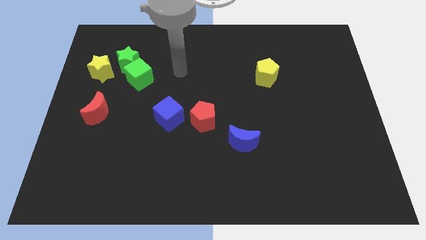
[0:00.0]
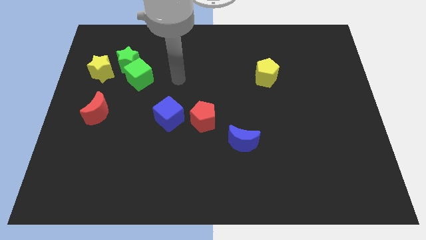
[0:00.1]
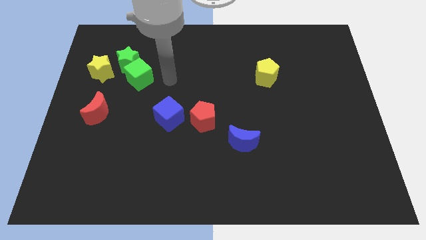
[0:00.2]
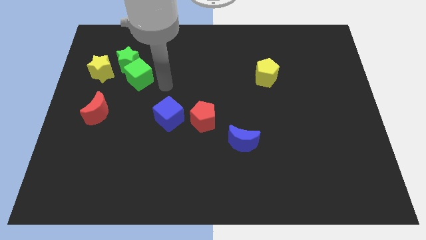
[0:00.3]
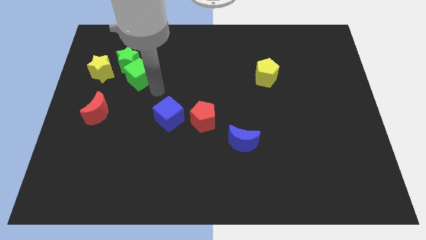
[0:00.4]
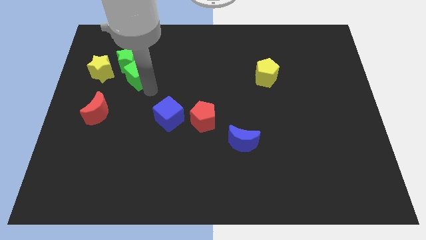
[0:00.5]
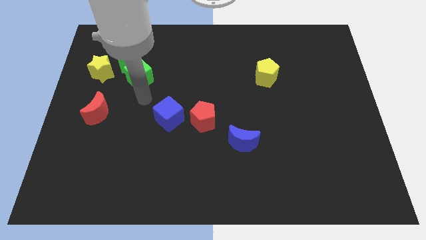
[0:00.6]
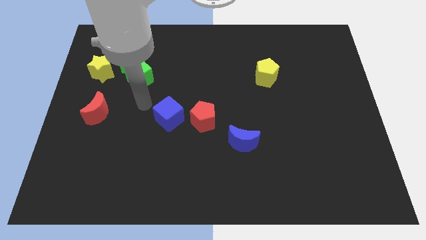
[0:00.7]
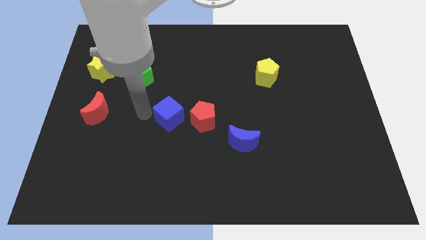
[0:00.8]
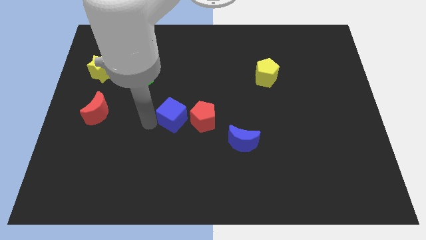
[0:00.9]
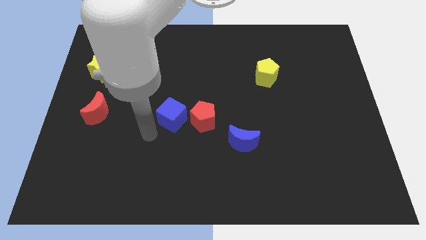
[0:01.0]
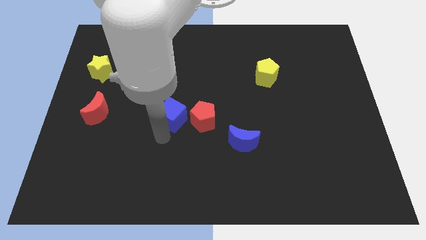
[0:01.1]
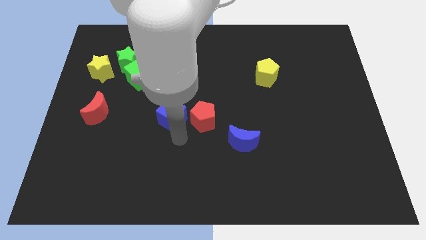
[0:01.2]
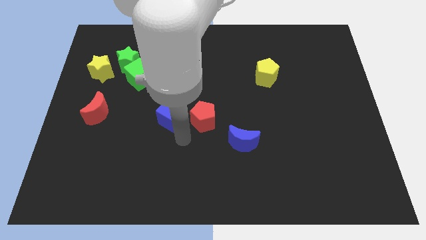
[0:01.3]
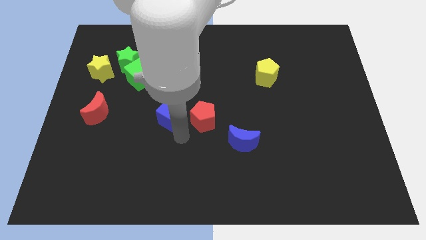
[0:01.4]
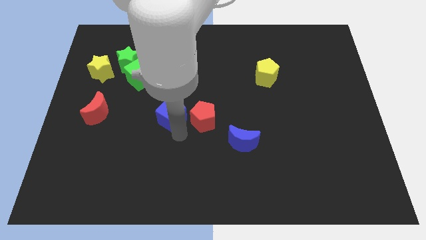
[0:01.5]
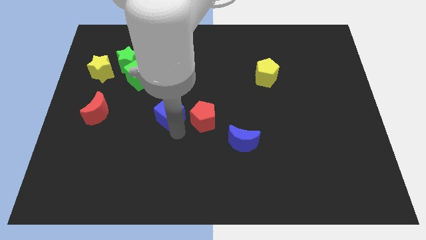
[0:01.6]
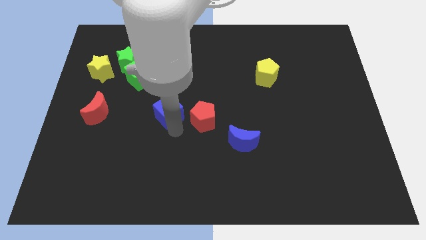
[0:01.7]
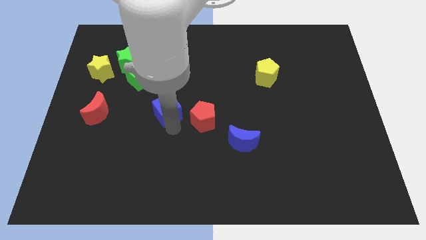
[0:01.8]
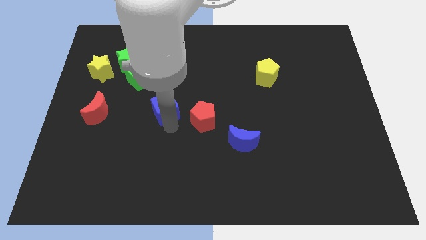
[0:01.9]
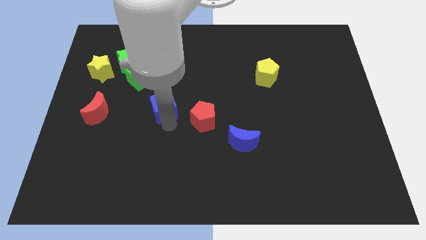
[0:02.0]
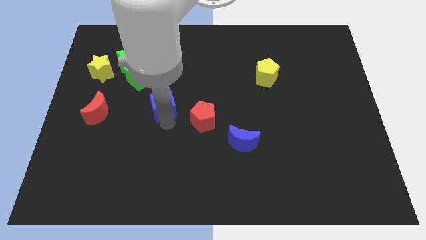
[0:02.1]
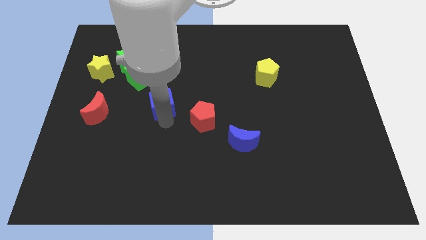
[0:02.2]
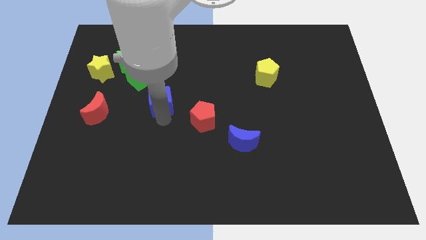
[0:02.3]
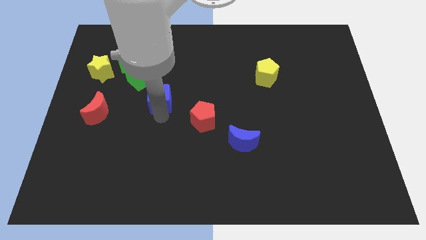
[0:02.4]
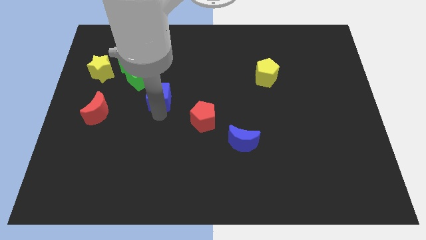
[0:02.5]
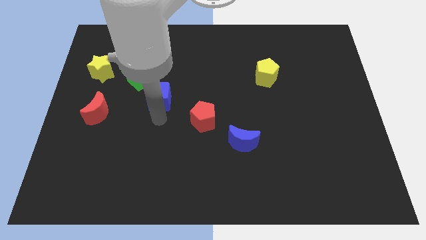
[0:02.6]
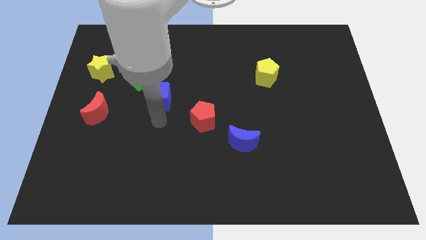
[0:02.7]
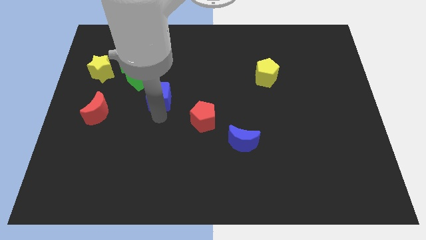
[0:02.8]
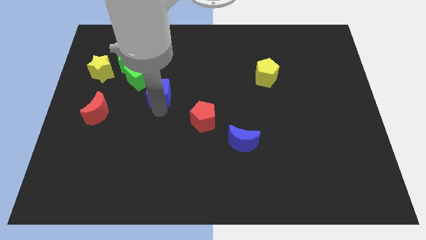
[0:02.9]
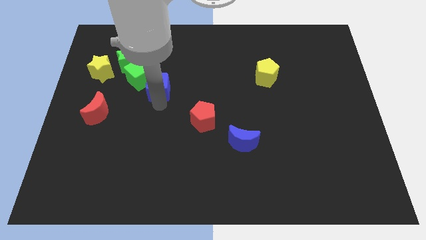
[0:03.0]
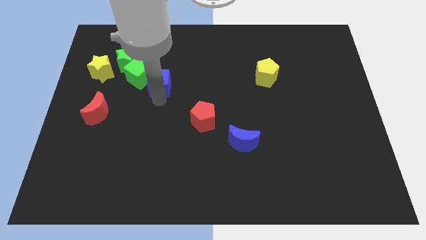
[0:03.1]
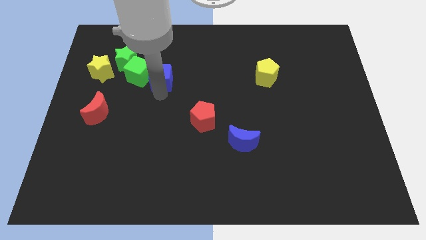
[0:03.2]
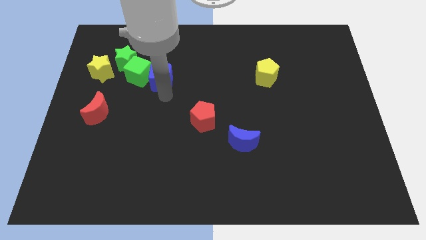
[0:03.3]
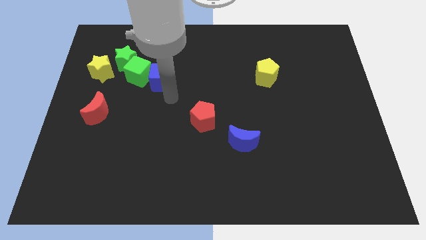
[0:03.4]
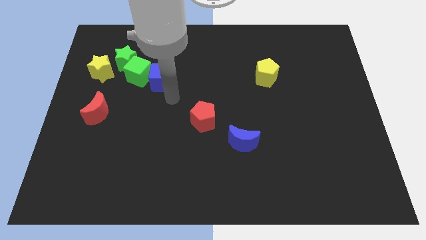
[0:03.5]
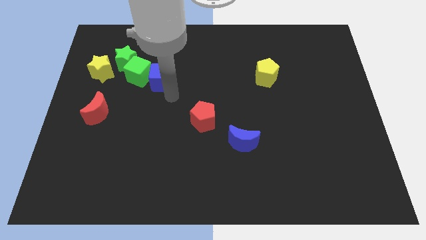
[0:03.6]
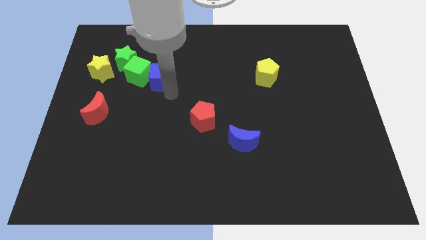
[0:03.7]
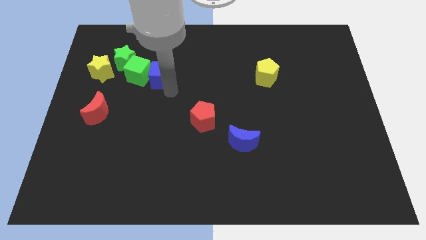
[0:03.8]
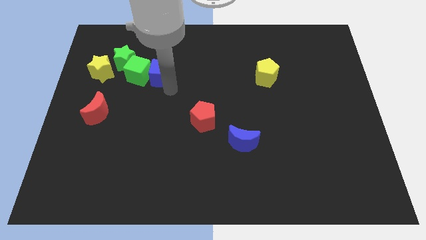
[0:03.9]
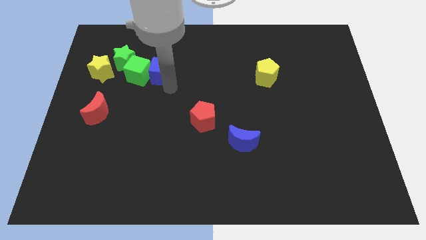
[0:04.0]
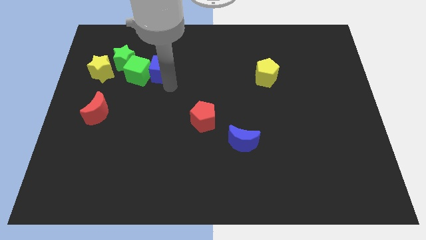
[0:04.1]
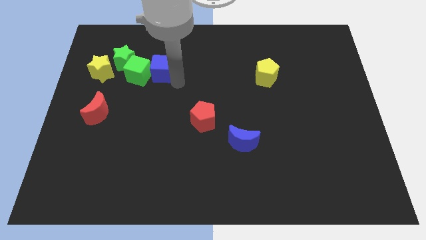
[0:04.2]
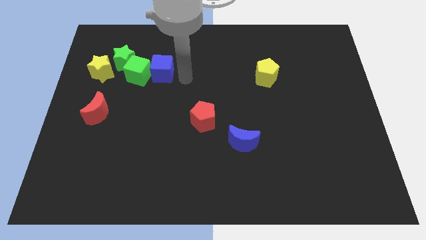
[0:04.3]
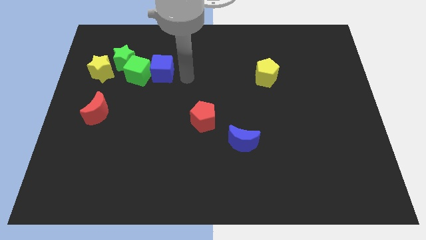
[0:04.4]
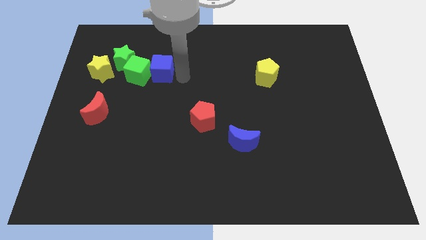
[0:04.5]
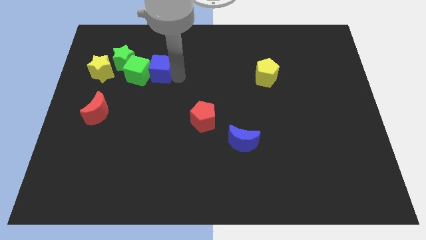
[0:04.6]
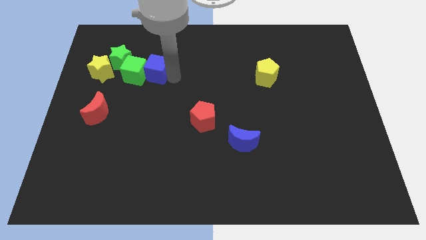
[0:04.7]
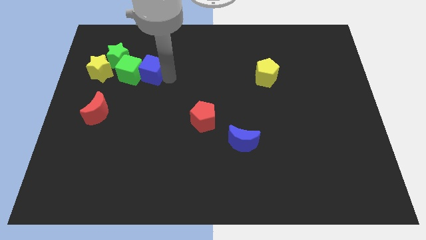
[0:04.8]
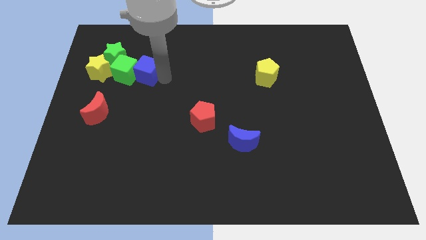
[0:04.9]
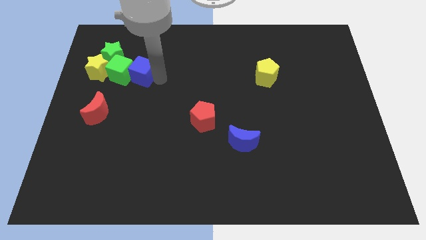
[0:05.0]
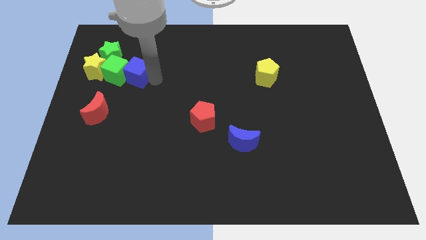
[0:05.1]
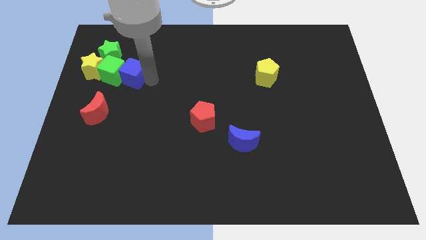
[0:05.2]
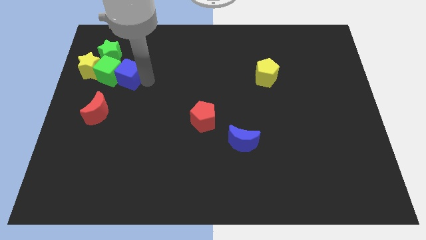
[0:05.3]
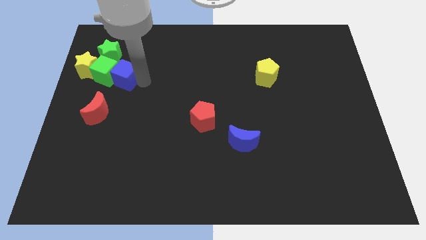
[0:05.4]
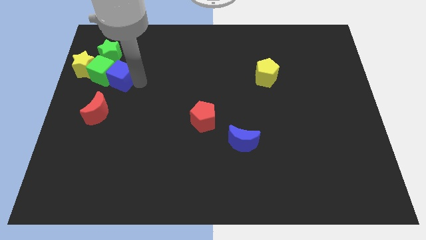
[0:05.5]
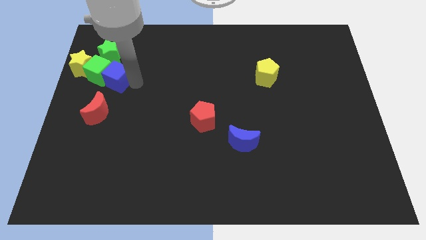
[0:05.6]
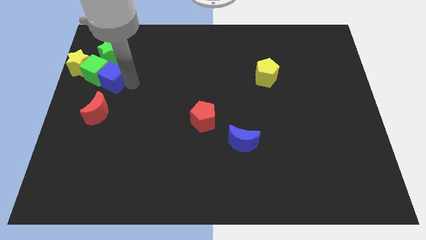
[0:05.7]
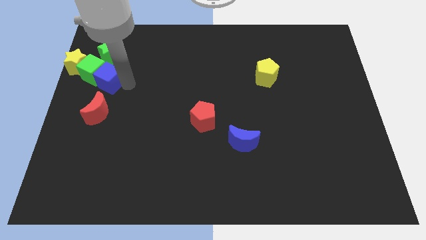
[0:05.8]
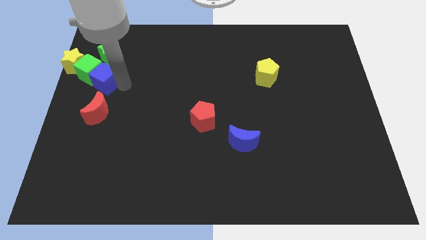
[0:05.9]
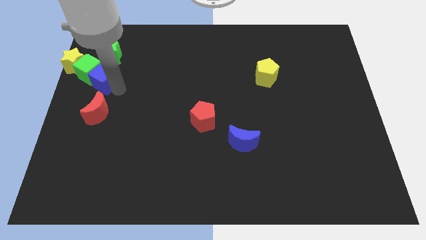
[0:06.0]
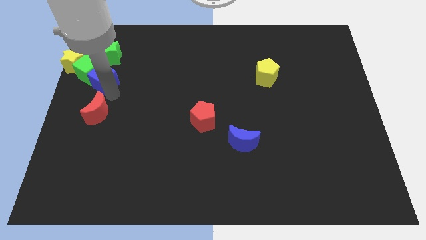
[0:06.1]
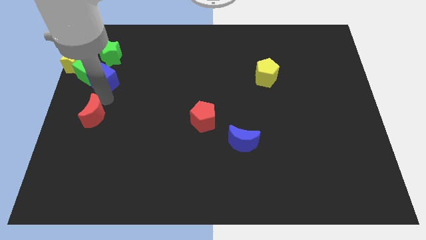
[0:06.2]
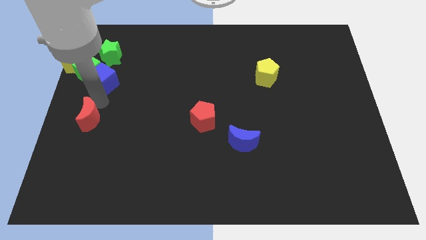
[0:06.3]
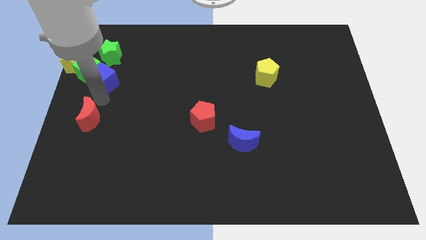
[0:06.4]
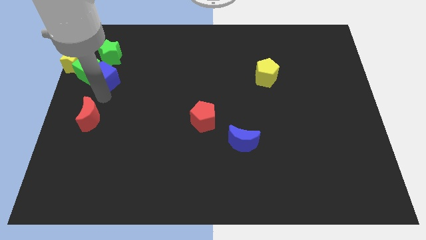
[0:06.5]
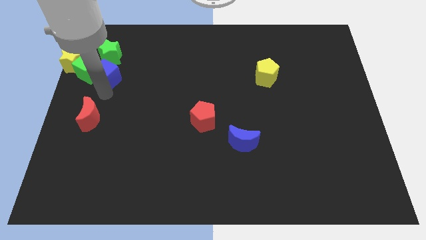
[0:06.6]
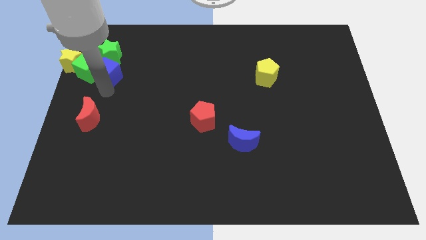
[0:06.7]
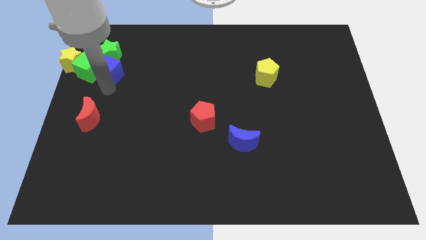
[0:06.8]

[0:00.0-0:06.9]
move the blue cube towards the green star

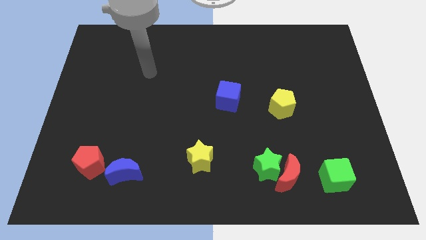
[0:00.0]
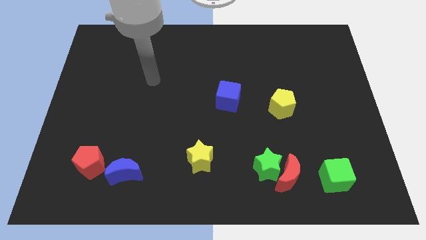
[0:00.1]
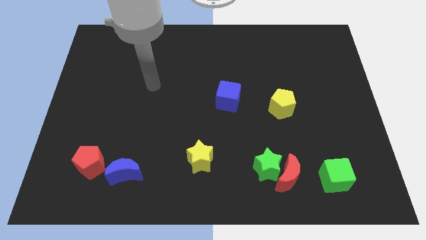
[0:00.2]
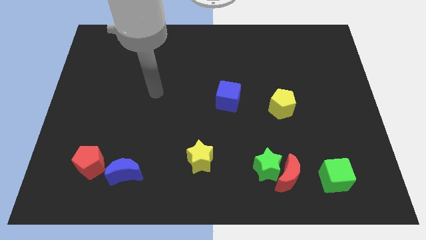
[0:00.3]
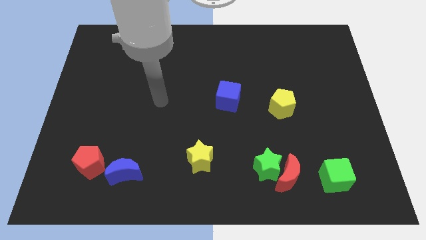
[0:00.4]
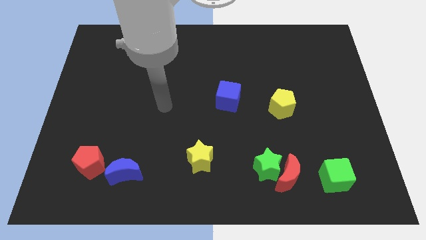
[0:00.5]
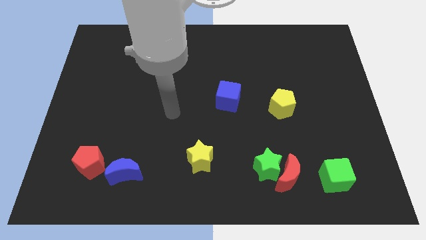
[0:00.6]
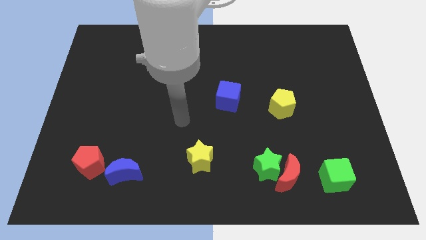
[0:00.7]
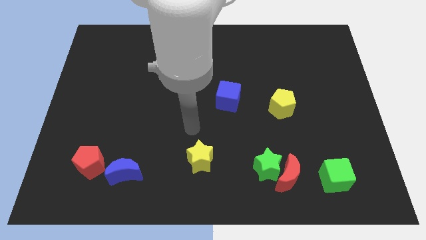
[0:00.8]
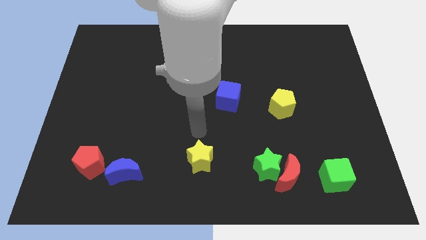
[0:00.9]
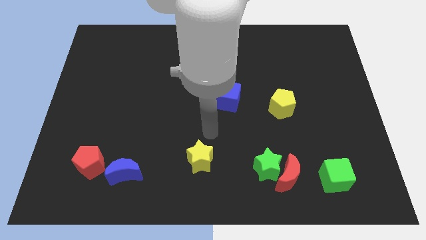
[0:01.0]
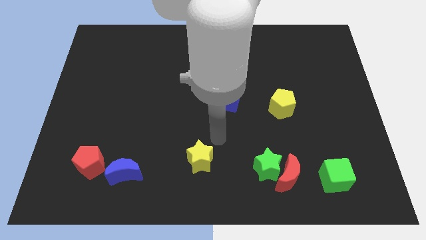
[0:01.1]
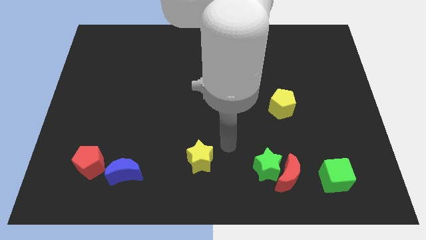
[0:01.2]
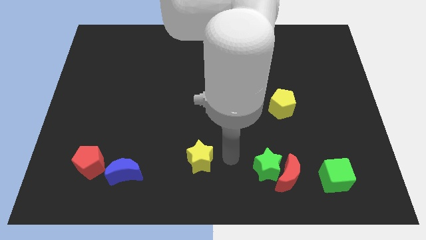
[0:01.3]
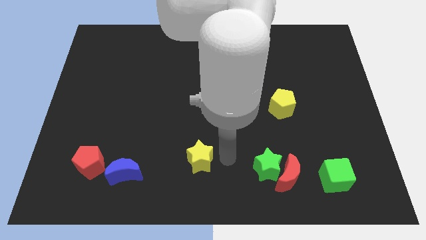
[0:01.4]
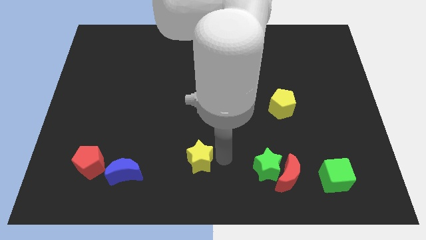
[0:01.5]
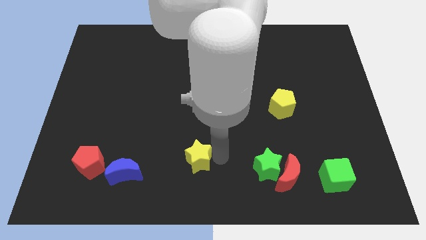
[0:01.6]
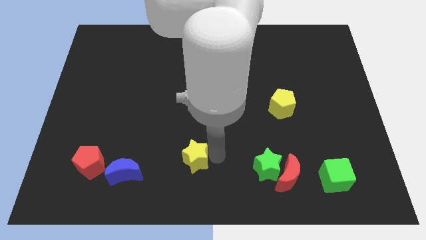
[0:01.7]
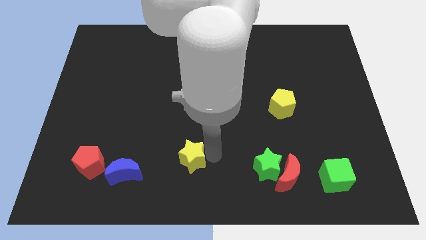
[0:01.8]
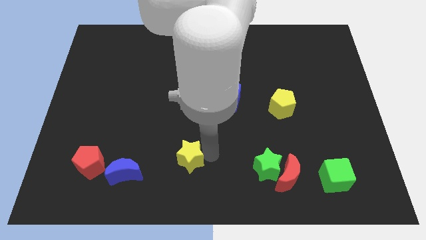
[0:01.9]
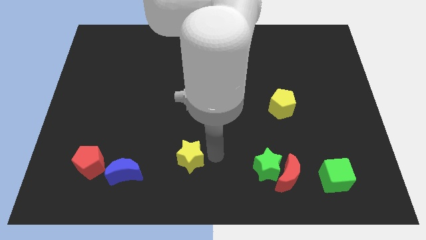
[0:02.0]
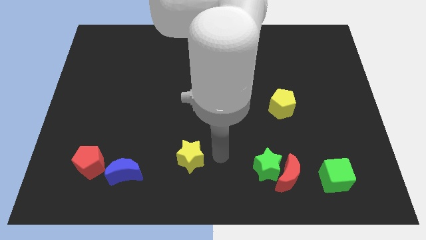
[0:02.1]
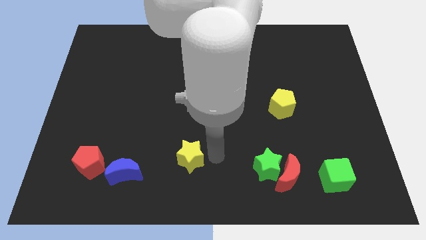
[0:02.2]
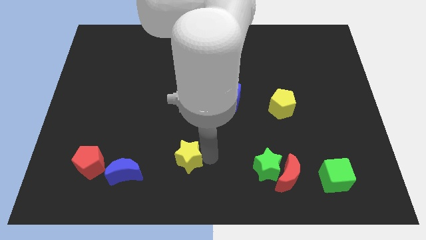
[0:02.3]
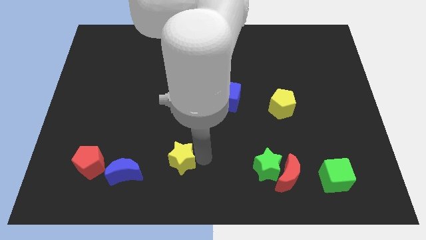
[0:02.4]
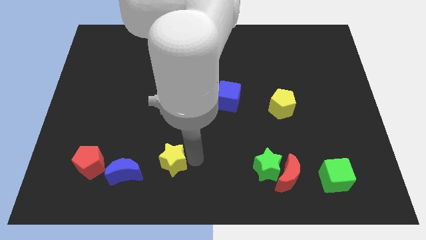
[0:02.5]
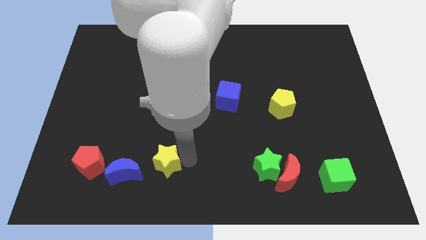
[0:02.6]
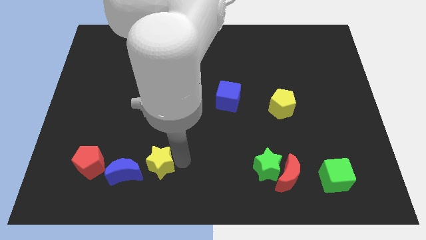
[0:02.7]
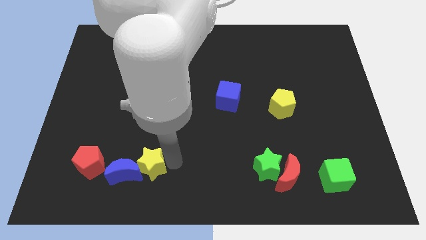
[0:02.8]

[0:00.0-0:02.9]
put the yellow star towards the blue moon
